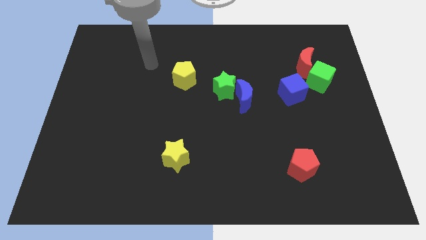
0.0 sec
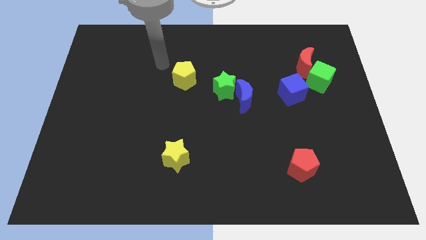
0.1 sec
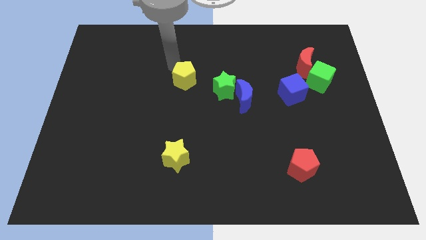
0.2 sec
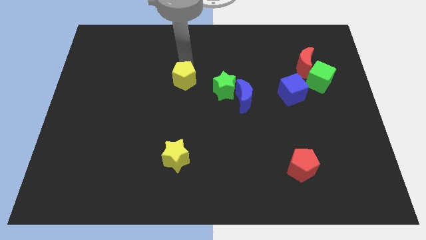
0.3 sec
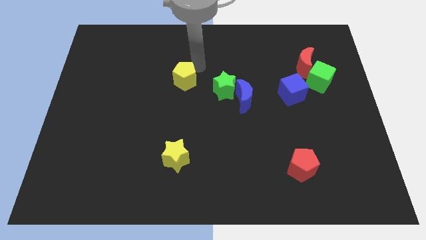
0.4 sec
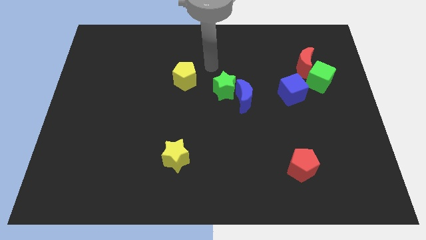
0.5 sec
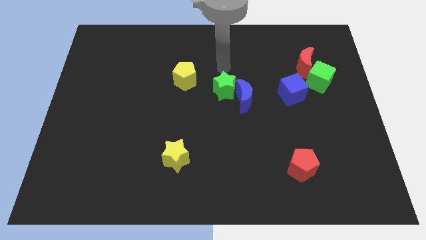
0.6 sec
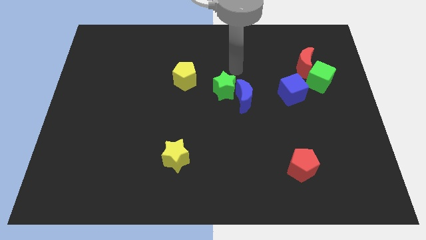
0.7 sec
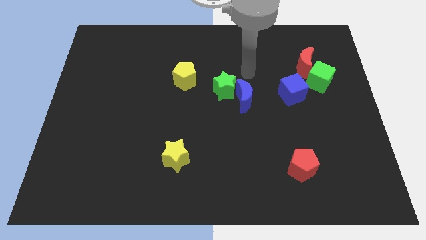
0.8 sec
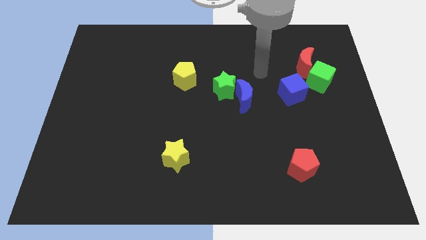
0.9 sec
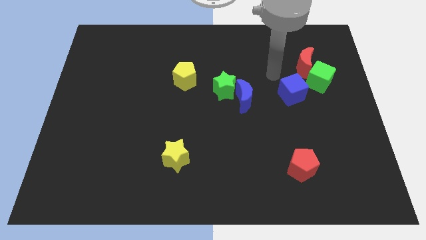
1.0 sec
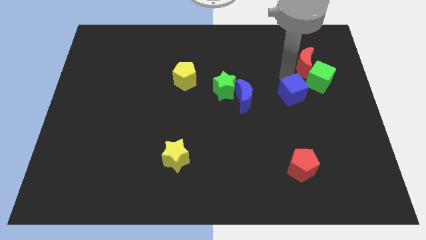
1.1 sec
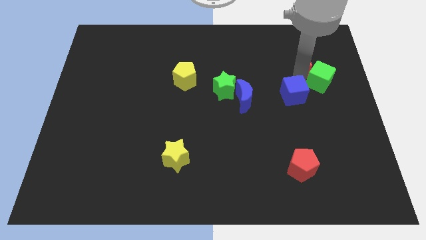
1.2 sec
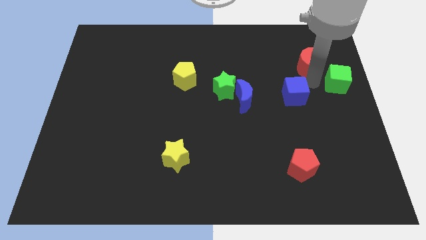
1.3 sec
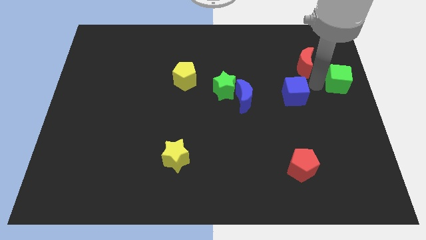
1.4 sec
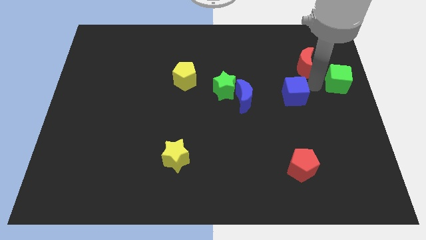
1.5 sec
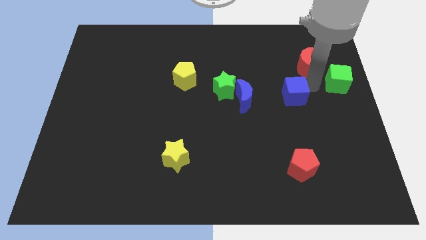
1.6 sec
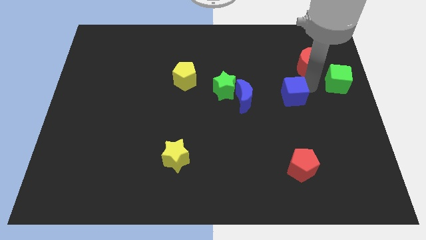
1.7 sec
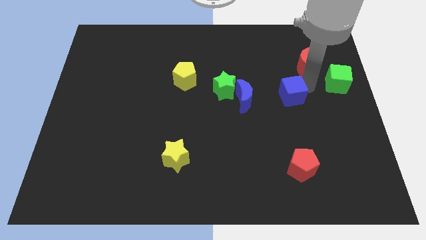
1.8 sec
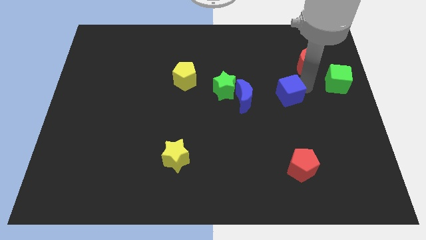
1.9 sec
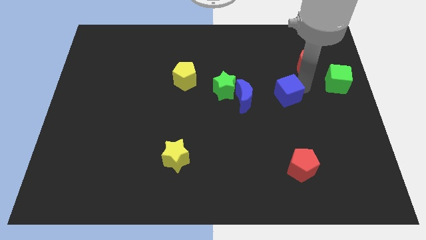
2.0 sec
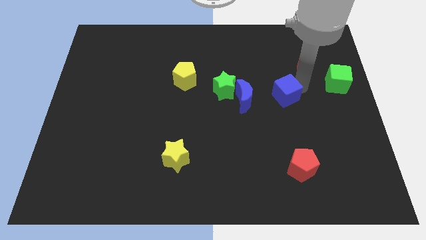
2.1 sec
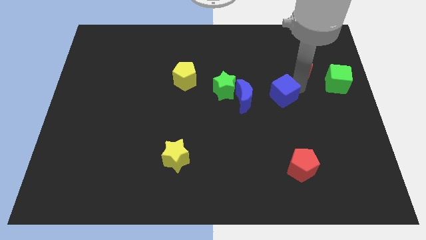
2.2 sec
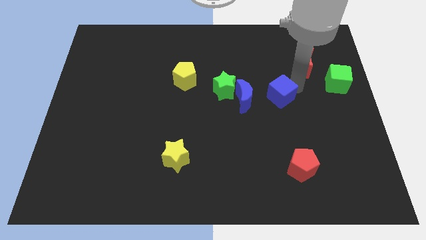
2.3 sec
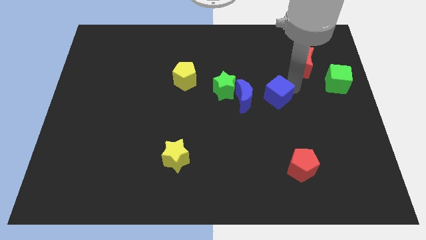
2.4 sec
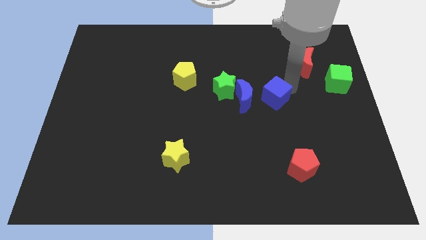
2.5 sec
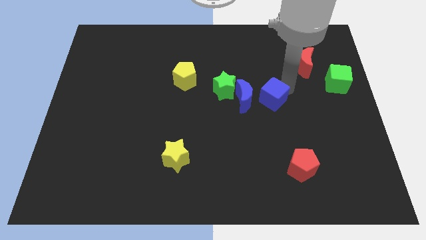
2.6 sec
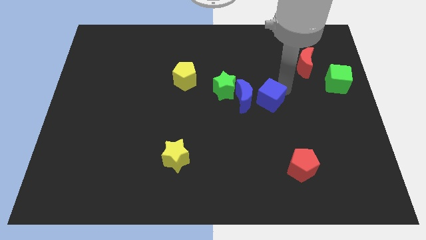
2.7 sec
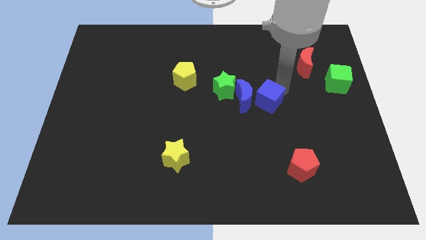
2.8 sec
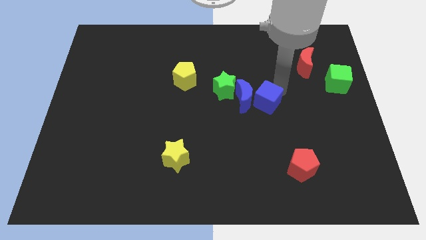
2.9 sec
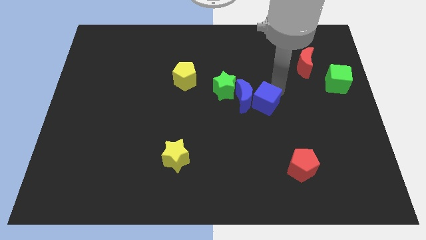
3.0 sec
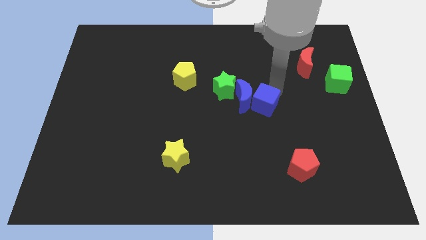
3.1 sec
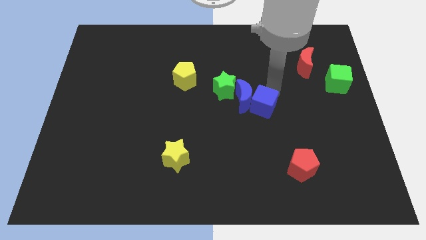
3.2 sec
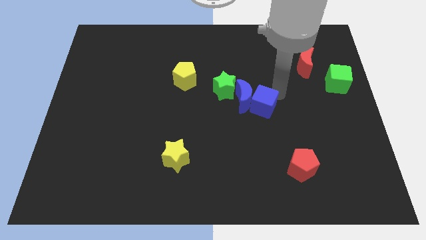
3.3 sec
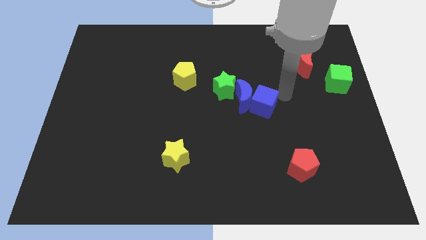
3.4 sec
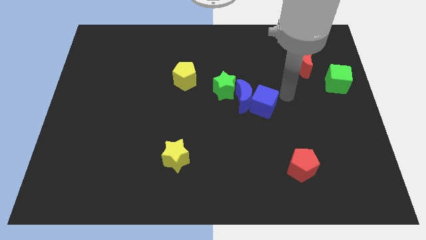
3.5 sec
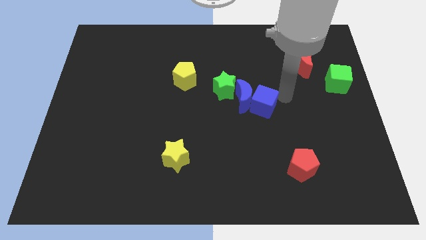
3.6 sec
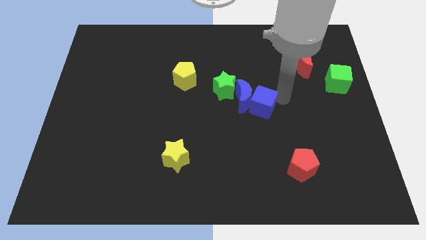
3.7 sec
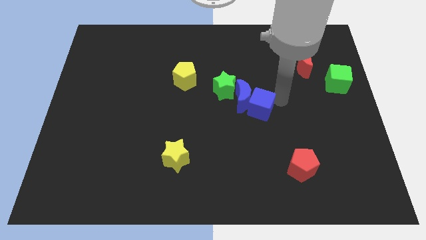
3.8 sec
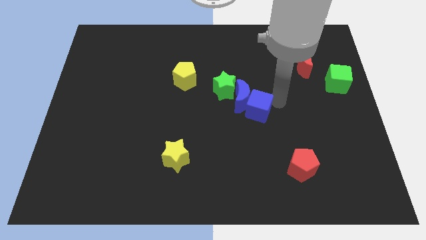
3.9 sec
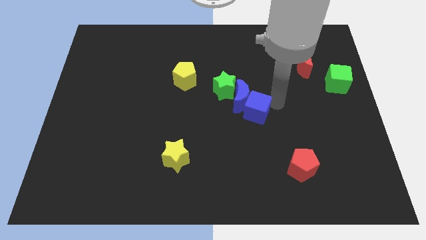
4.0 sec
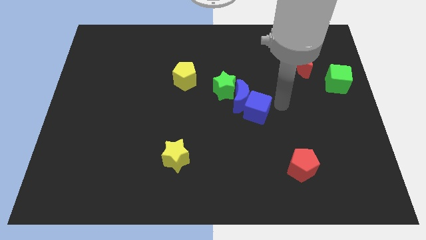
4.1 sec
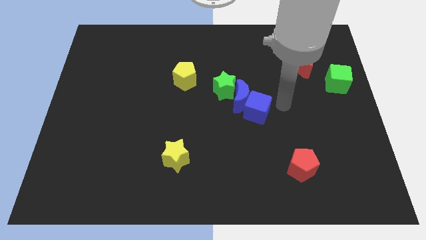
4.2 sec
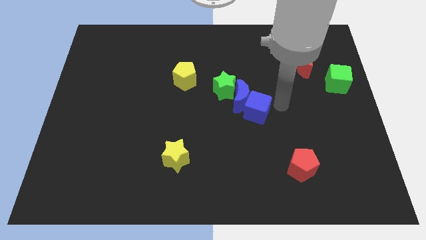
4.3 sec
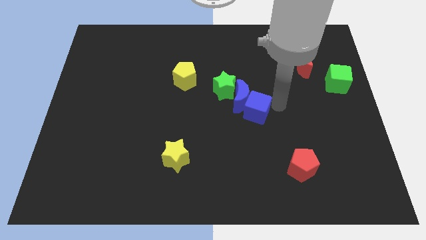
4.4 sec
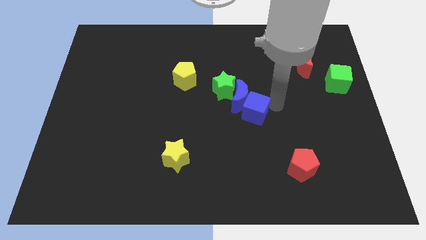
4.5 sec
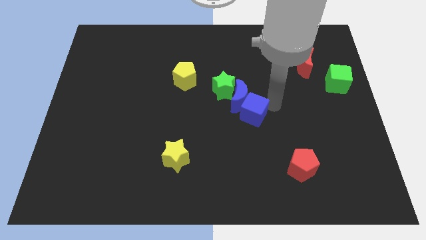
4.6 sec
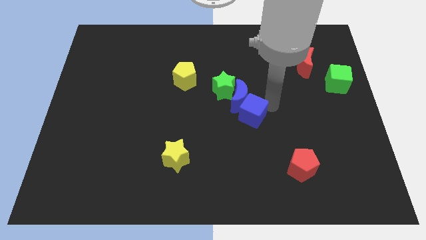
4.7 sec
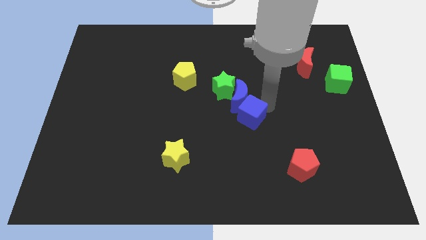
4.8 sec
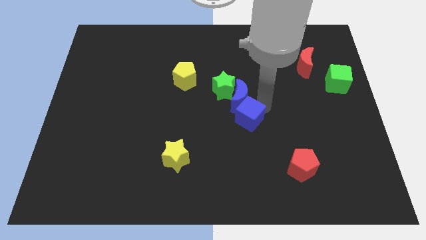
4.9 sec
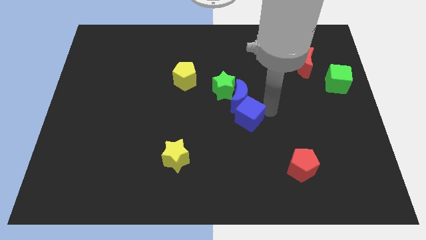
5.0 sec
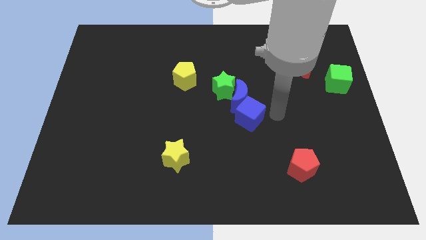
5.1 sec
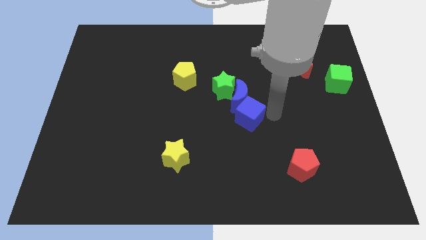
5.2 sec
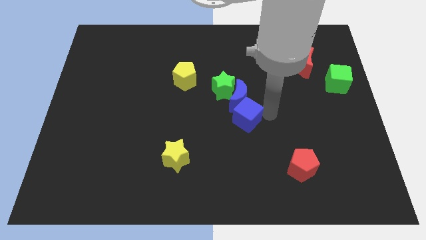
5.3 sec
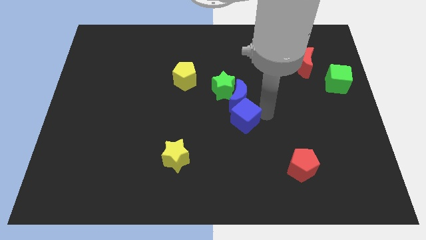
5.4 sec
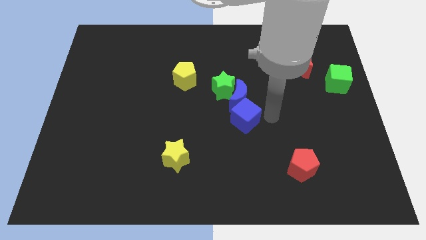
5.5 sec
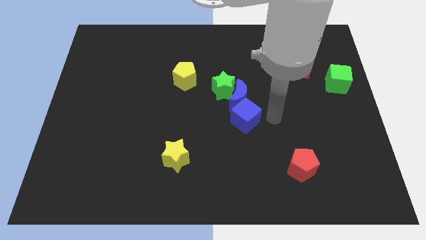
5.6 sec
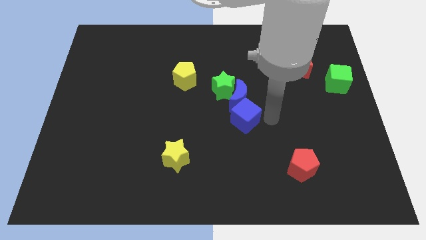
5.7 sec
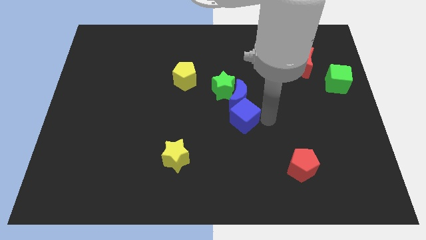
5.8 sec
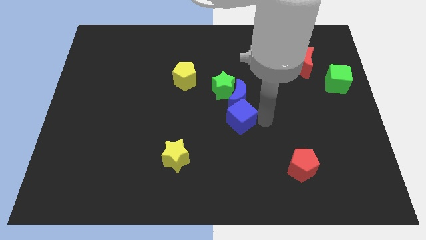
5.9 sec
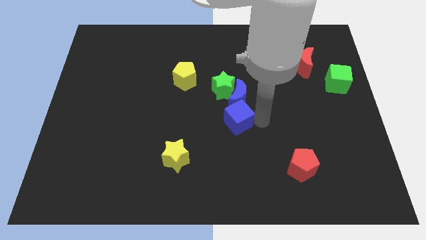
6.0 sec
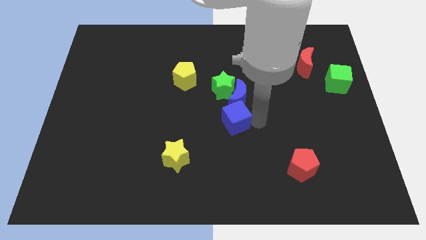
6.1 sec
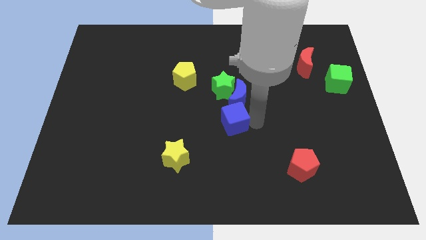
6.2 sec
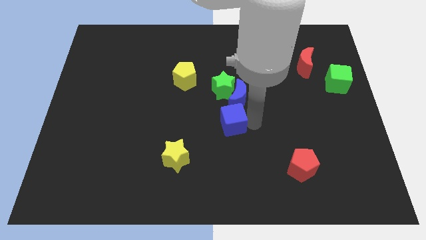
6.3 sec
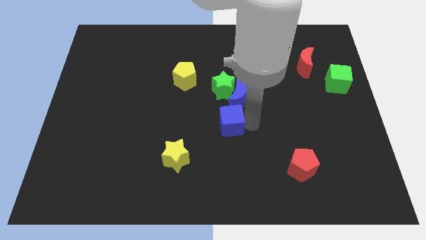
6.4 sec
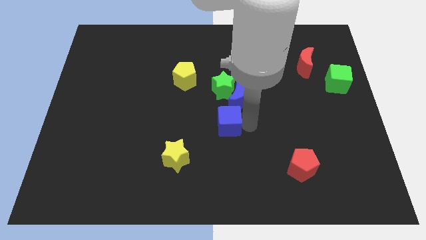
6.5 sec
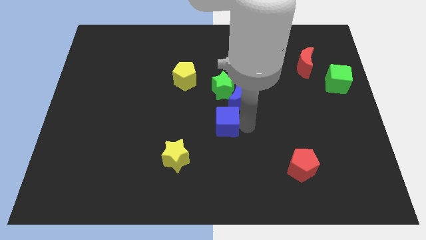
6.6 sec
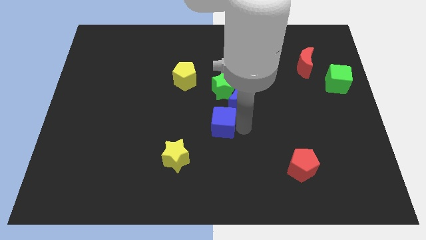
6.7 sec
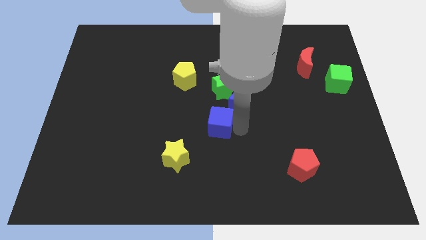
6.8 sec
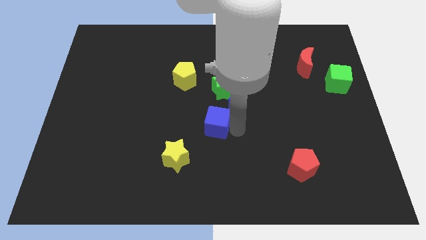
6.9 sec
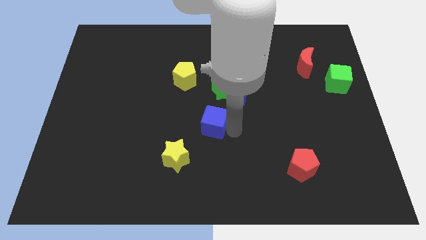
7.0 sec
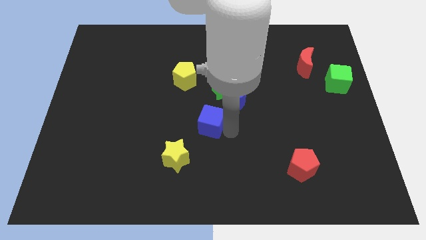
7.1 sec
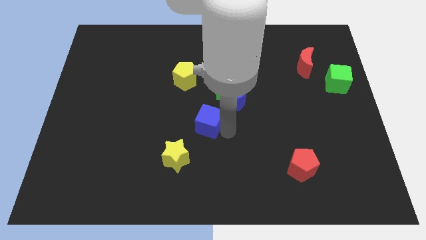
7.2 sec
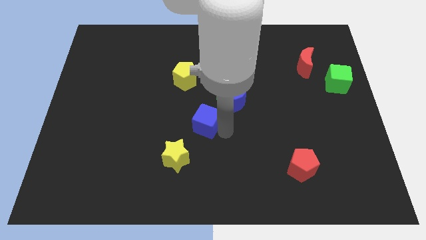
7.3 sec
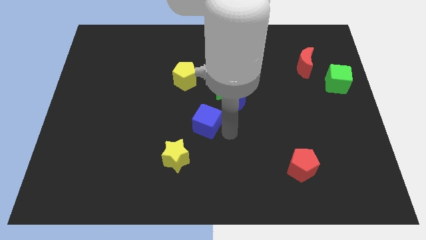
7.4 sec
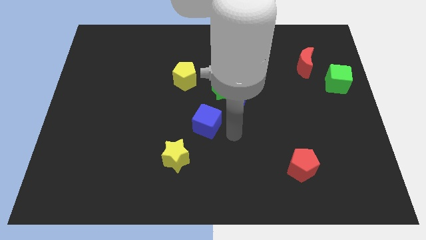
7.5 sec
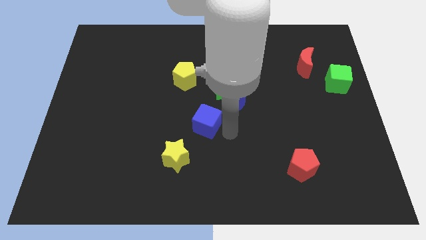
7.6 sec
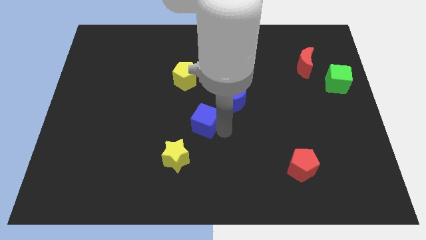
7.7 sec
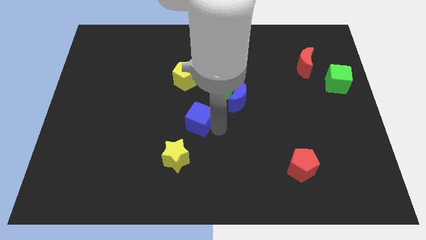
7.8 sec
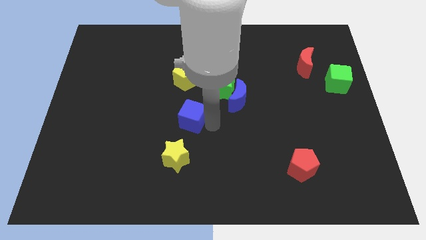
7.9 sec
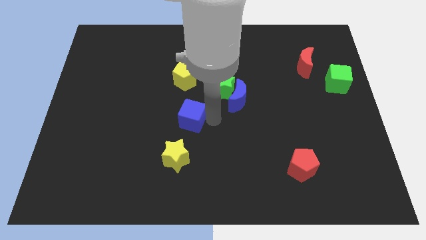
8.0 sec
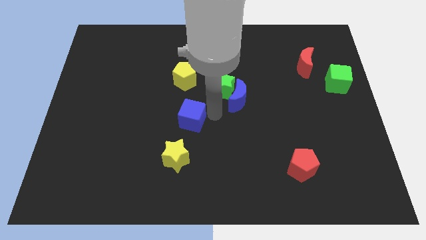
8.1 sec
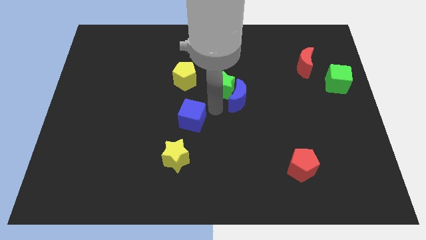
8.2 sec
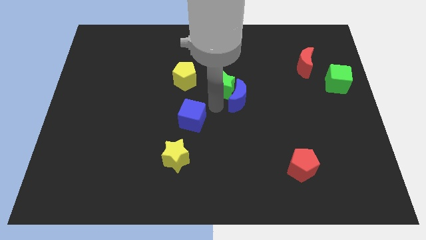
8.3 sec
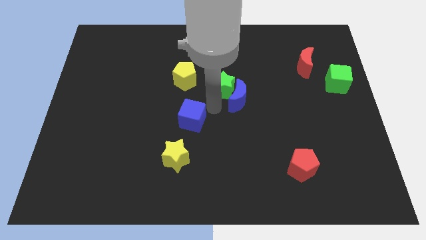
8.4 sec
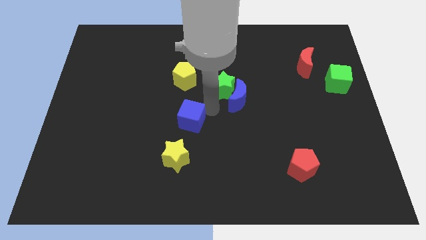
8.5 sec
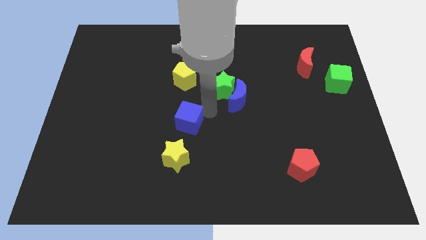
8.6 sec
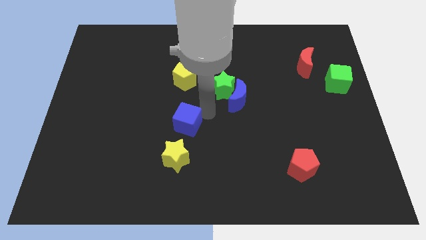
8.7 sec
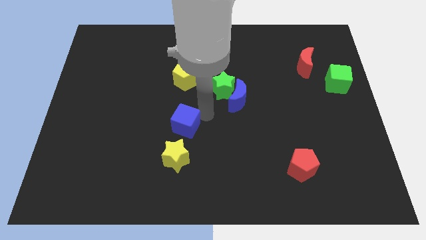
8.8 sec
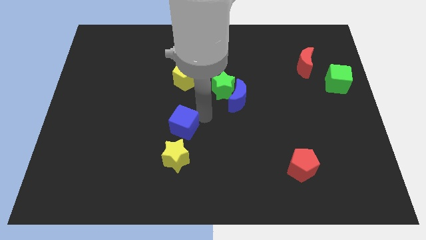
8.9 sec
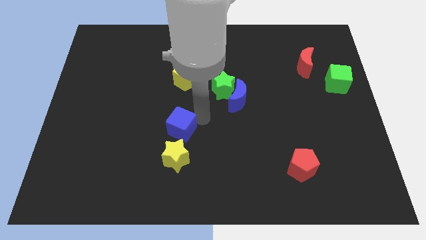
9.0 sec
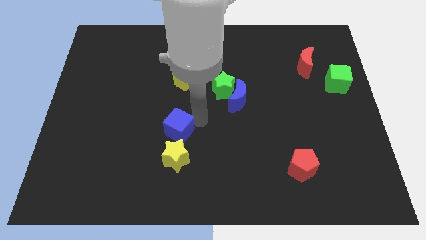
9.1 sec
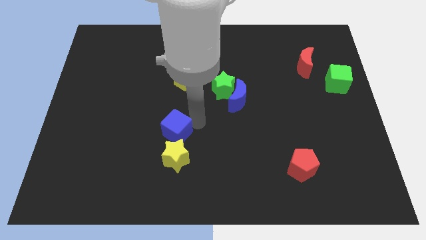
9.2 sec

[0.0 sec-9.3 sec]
move the blue cube diagonally up and to the left of the yellow star
